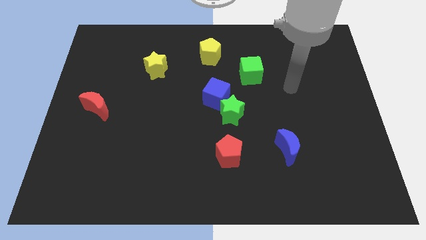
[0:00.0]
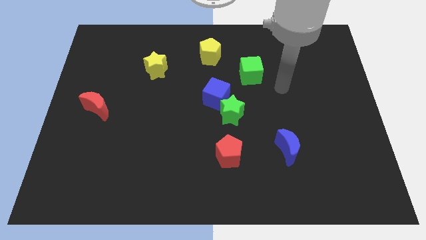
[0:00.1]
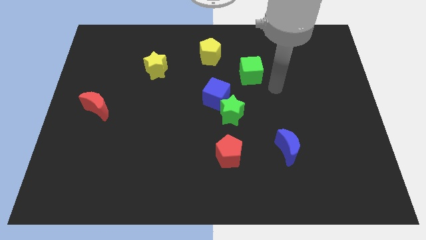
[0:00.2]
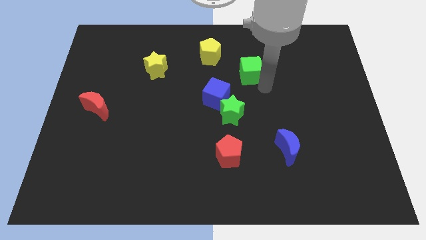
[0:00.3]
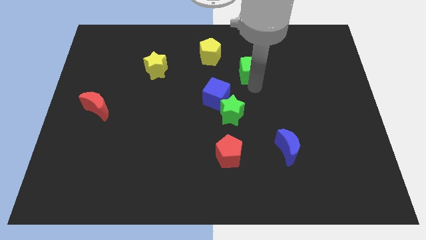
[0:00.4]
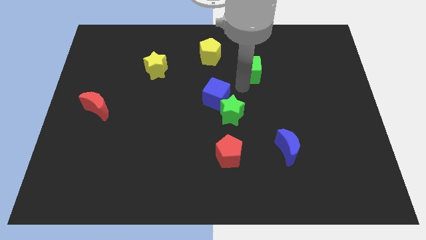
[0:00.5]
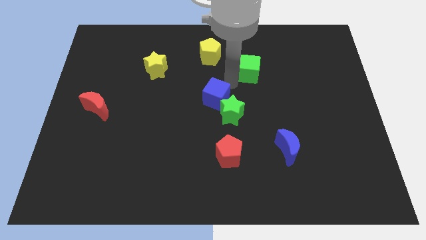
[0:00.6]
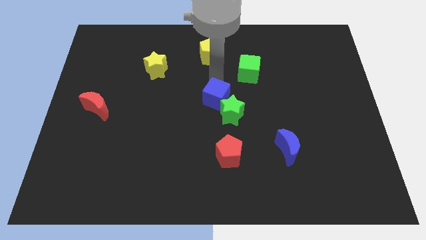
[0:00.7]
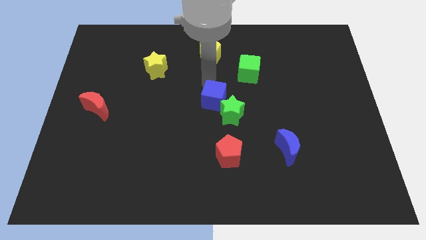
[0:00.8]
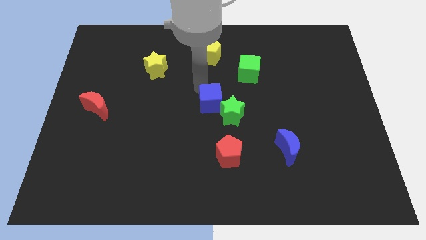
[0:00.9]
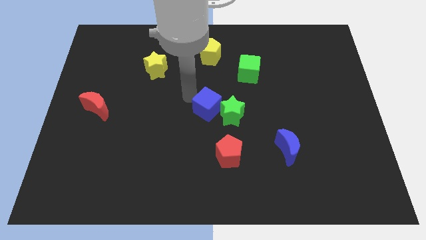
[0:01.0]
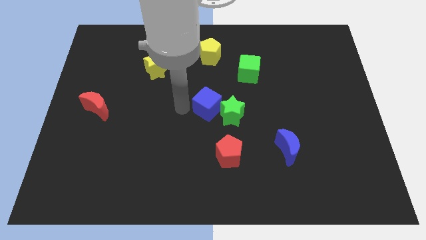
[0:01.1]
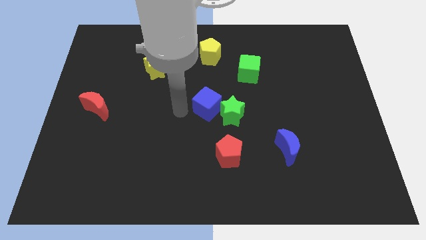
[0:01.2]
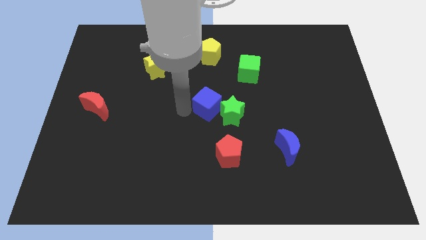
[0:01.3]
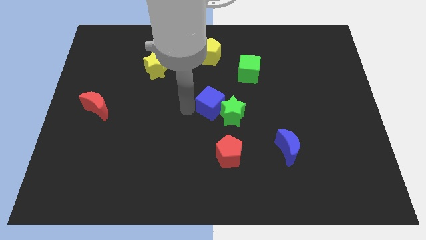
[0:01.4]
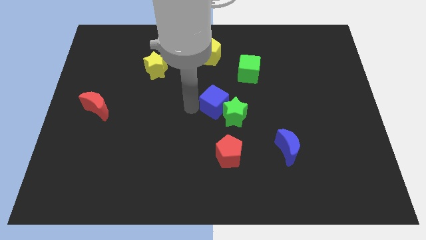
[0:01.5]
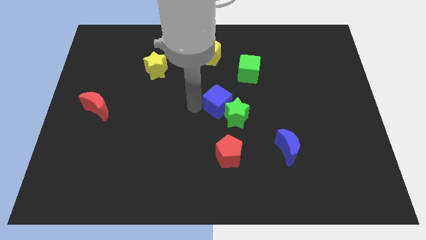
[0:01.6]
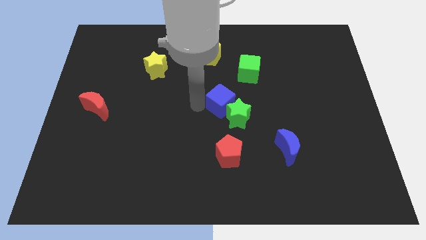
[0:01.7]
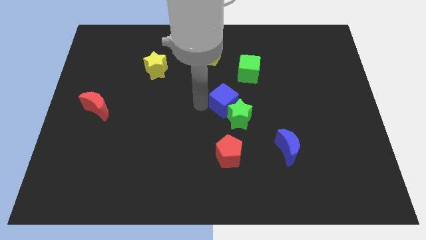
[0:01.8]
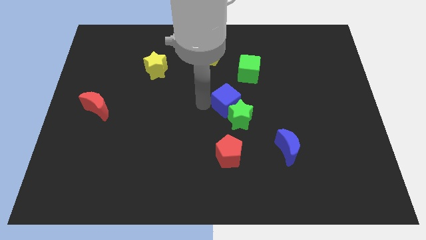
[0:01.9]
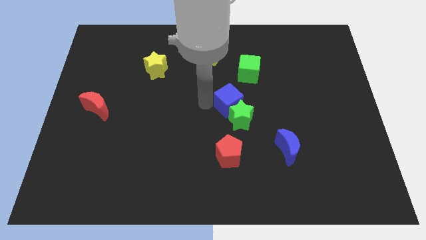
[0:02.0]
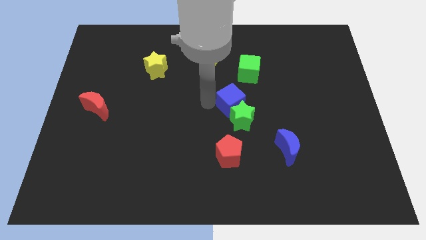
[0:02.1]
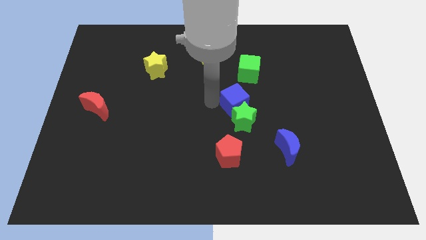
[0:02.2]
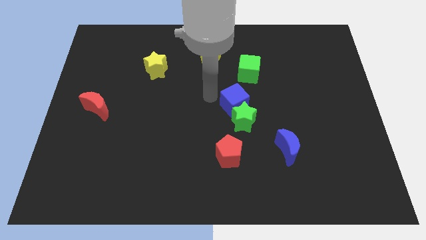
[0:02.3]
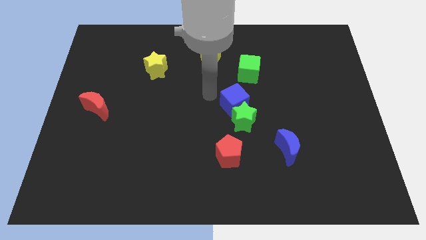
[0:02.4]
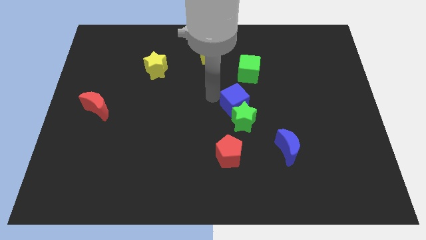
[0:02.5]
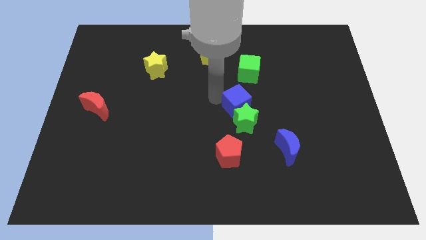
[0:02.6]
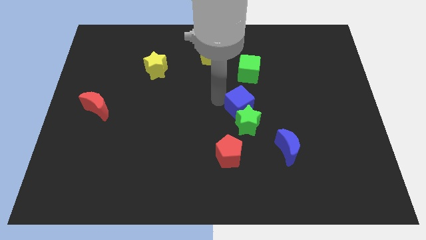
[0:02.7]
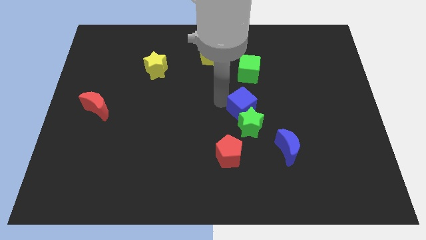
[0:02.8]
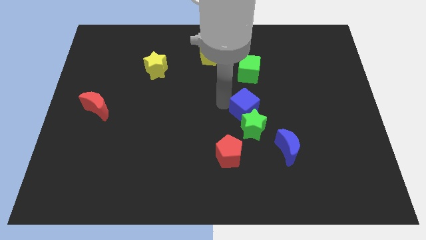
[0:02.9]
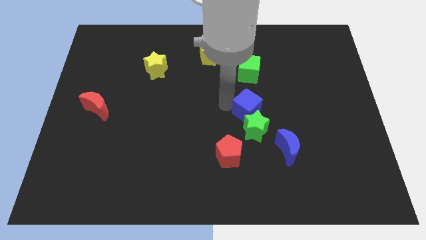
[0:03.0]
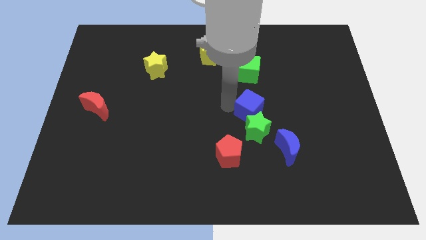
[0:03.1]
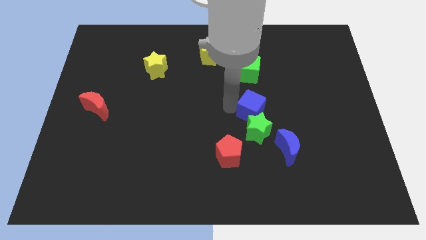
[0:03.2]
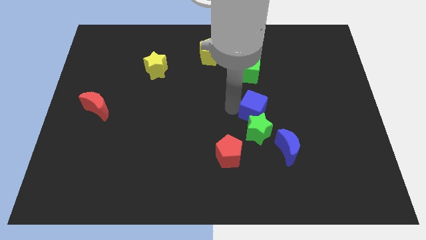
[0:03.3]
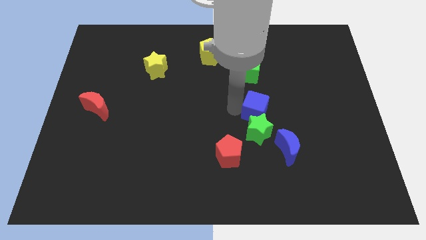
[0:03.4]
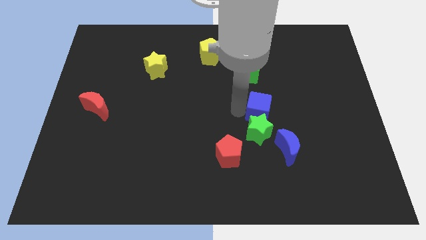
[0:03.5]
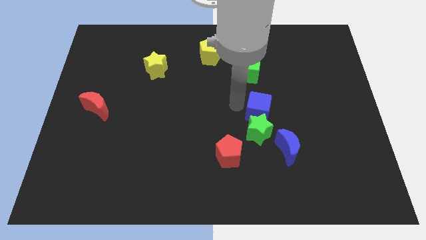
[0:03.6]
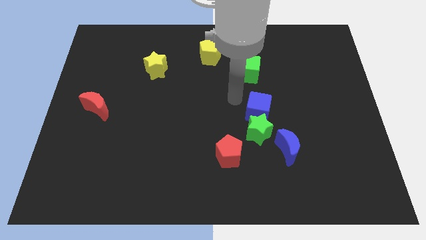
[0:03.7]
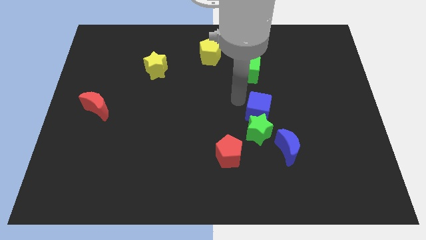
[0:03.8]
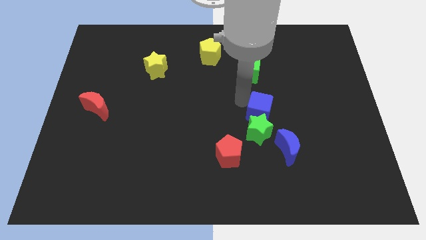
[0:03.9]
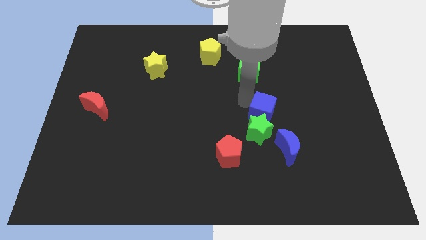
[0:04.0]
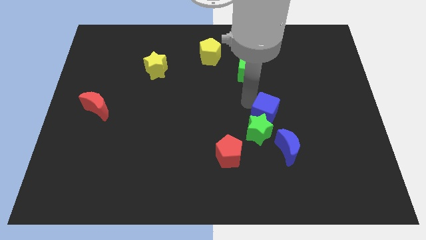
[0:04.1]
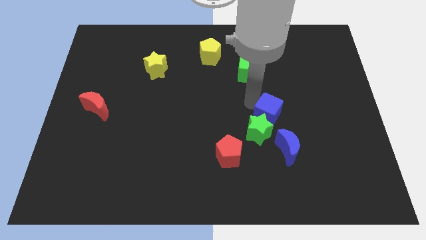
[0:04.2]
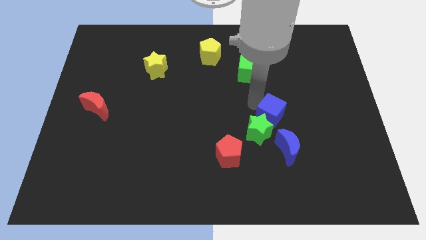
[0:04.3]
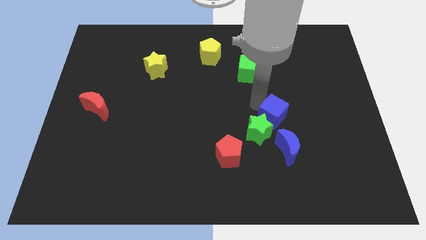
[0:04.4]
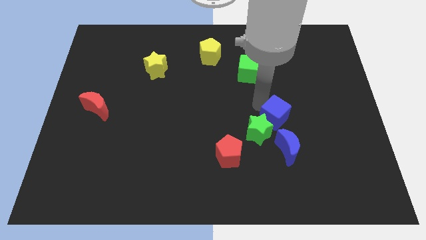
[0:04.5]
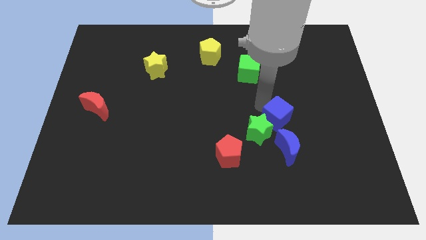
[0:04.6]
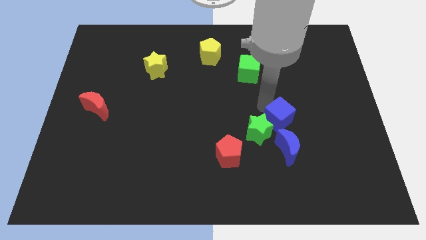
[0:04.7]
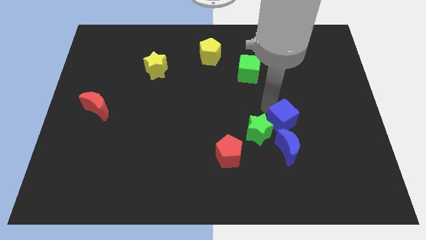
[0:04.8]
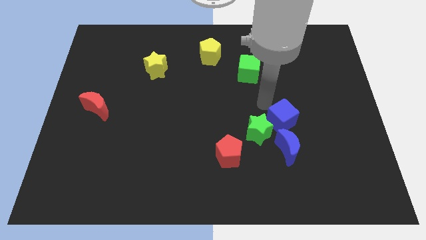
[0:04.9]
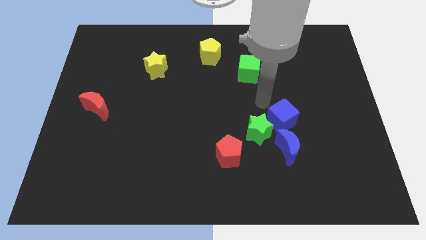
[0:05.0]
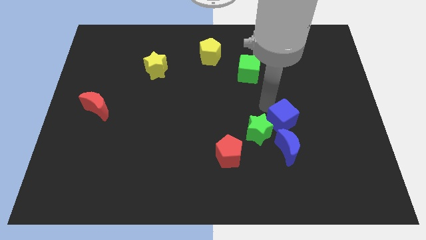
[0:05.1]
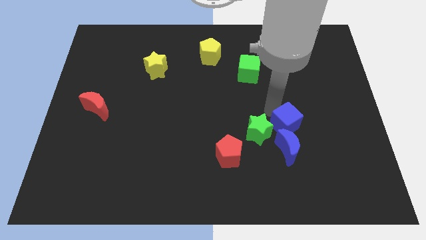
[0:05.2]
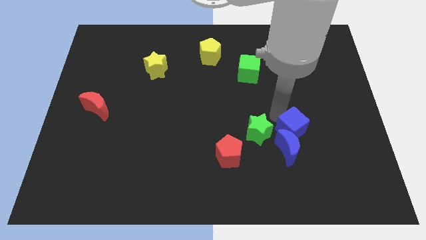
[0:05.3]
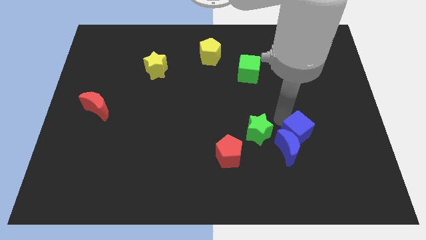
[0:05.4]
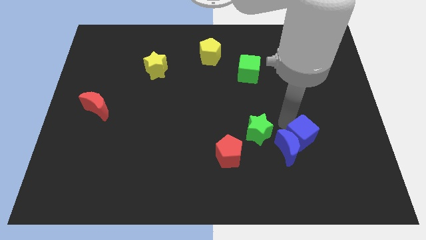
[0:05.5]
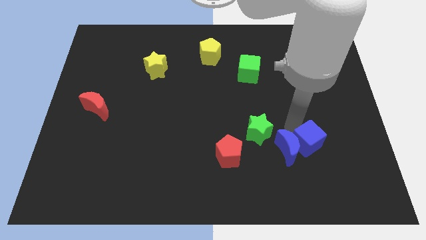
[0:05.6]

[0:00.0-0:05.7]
put the blue cube to the bottom right side of the blue moon
